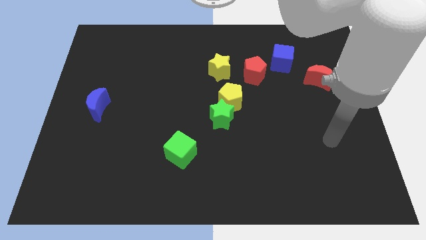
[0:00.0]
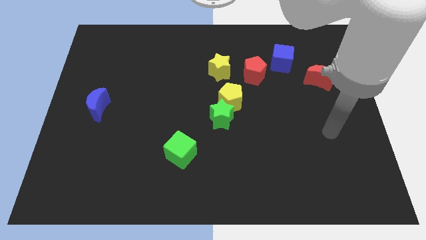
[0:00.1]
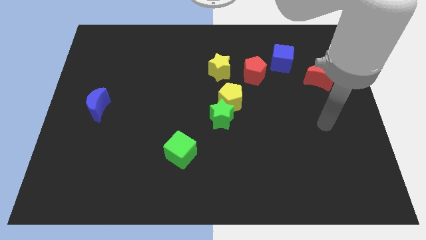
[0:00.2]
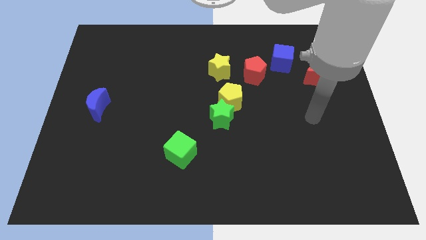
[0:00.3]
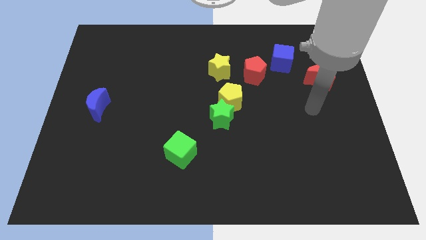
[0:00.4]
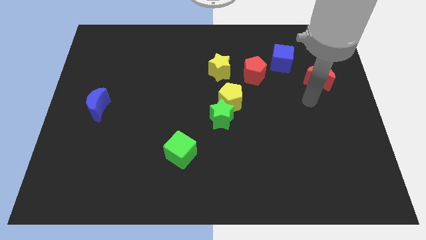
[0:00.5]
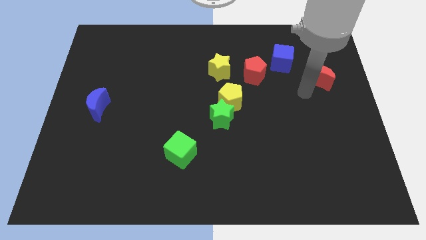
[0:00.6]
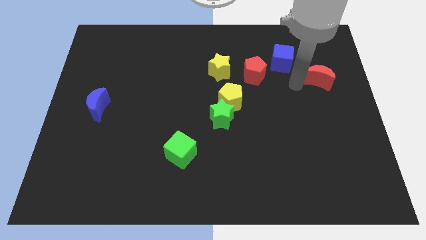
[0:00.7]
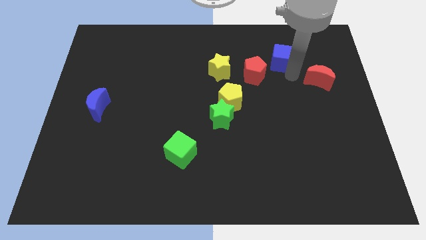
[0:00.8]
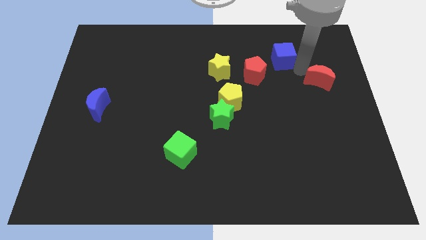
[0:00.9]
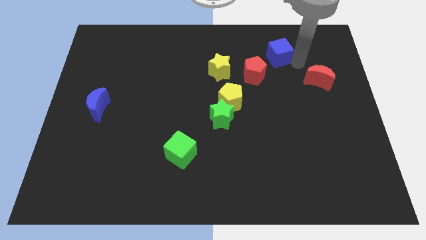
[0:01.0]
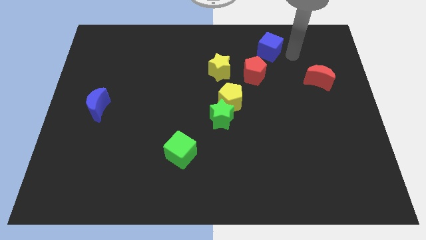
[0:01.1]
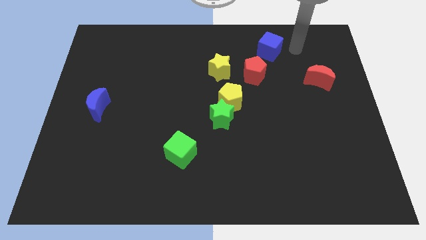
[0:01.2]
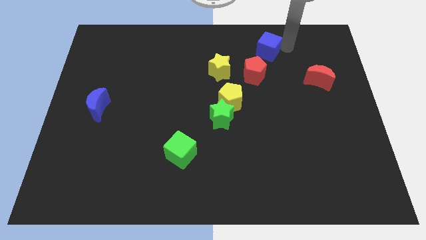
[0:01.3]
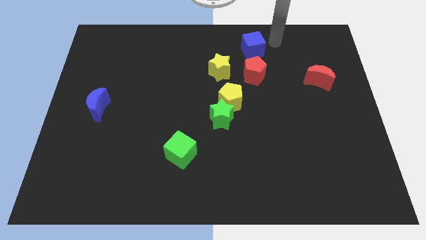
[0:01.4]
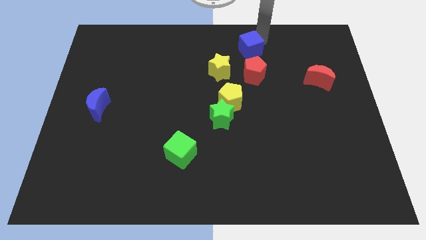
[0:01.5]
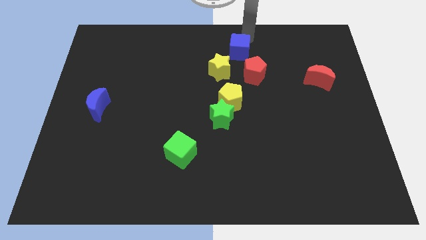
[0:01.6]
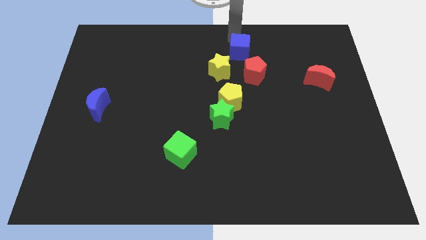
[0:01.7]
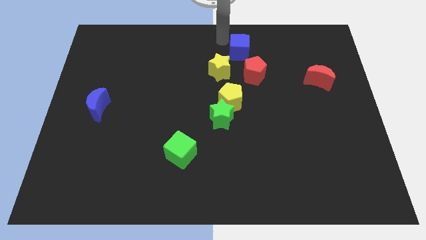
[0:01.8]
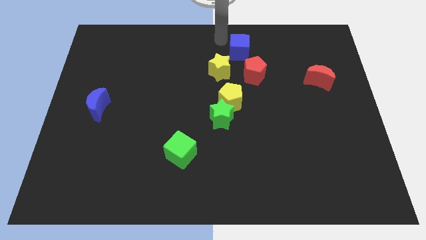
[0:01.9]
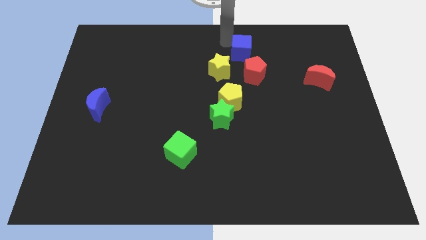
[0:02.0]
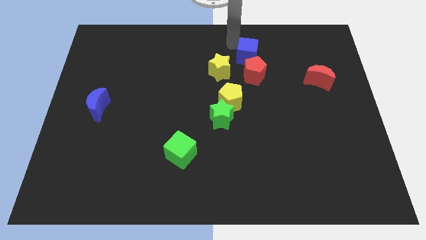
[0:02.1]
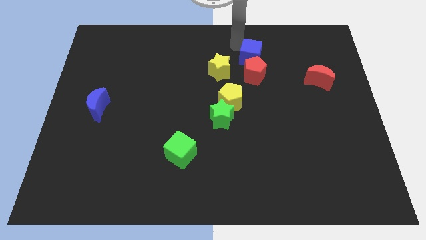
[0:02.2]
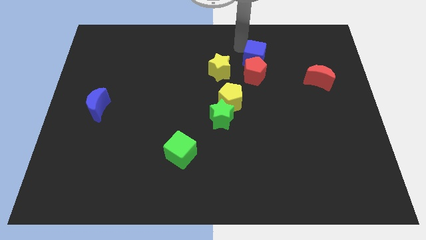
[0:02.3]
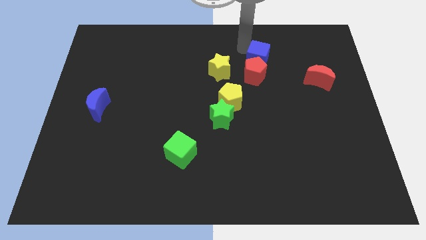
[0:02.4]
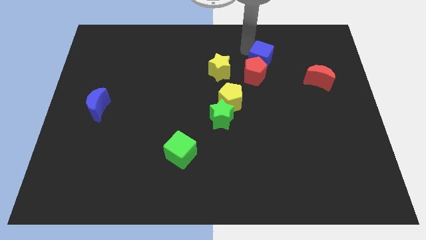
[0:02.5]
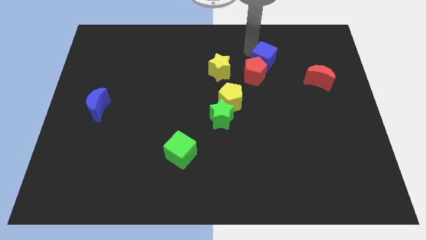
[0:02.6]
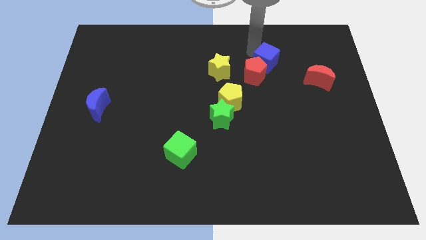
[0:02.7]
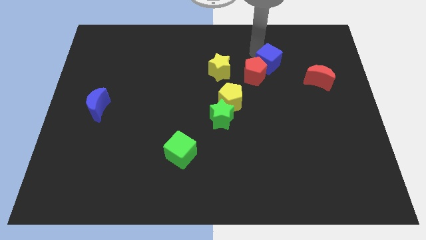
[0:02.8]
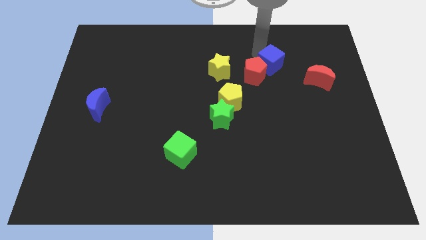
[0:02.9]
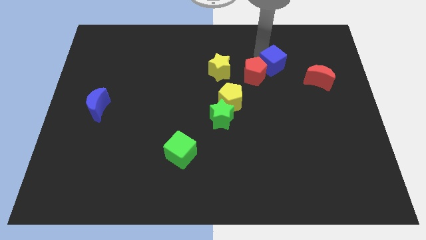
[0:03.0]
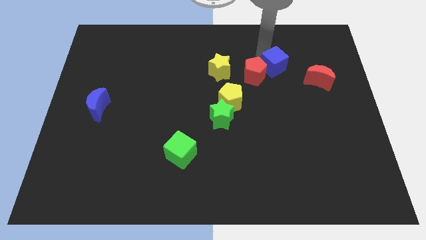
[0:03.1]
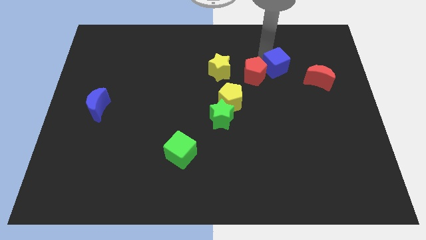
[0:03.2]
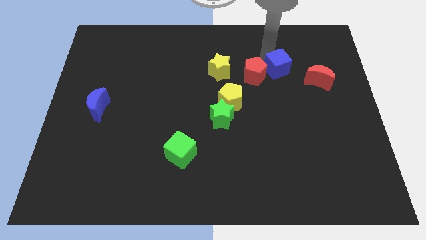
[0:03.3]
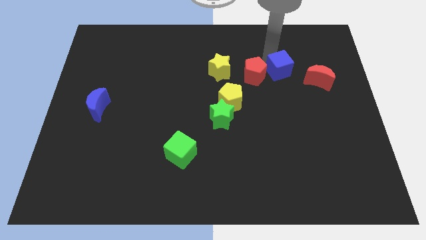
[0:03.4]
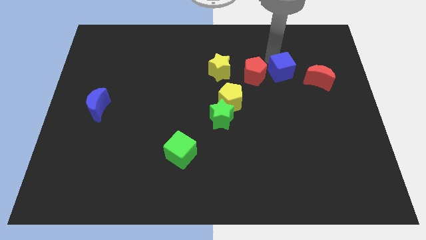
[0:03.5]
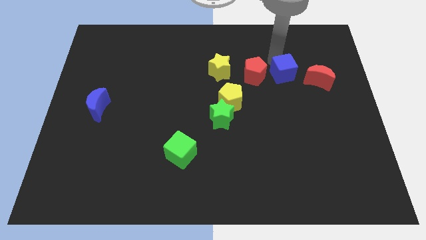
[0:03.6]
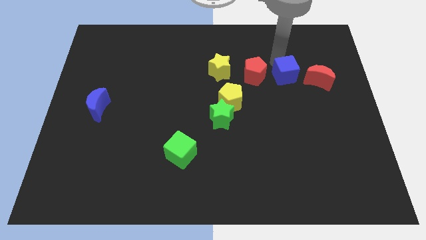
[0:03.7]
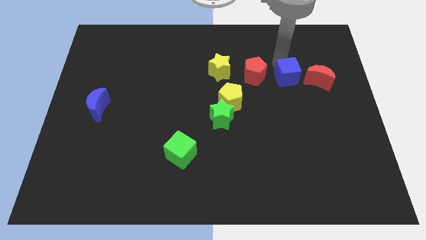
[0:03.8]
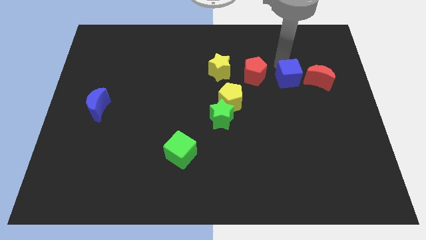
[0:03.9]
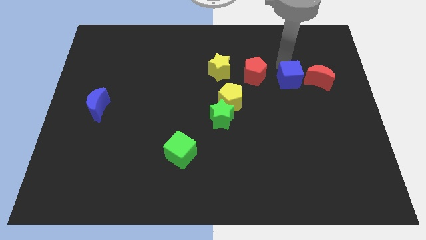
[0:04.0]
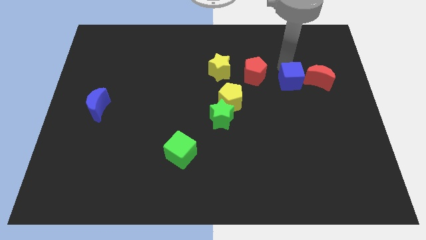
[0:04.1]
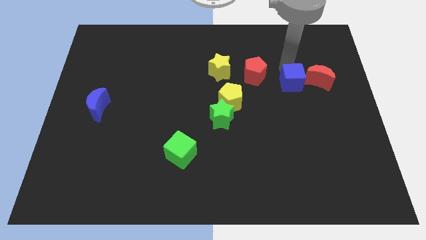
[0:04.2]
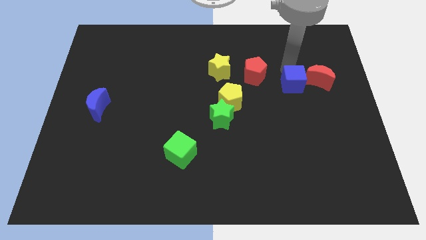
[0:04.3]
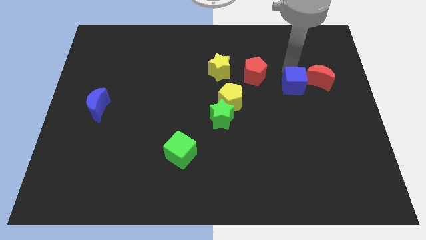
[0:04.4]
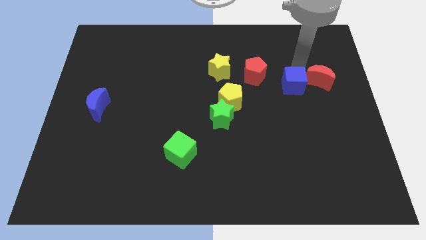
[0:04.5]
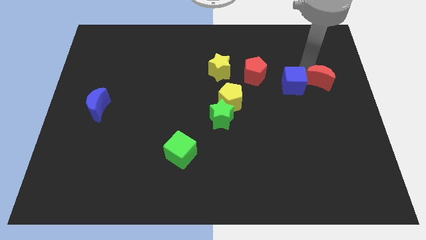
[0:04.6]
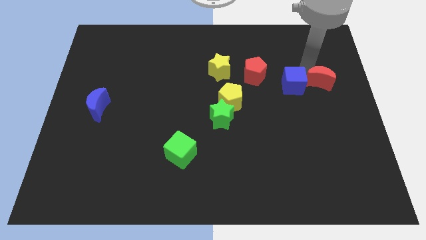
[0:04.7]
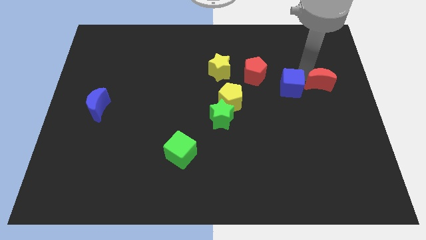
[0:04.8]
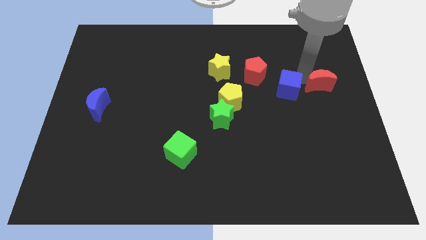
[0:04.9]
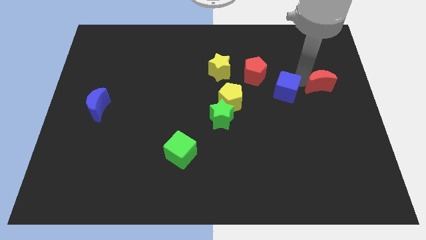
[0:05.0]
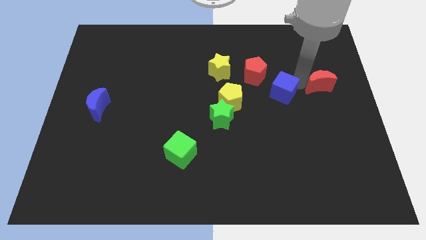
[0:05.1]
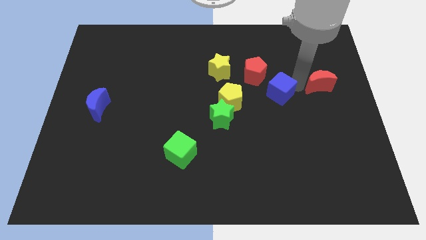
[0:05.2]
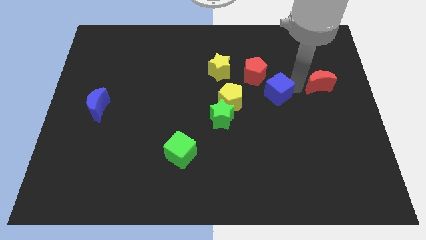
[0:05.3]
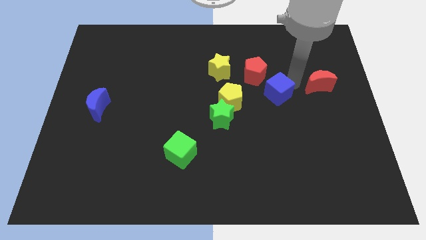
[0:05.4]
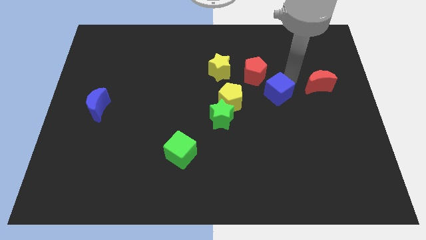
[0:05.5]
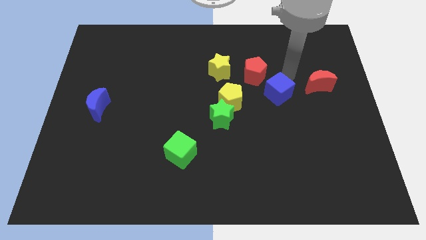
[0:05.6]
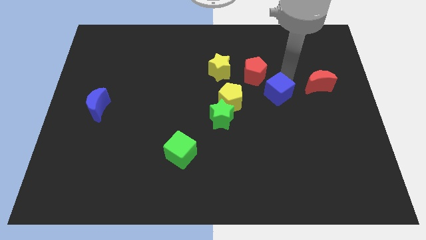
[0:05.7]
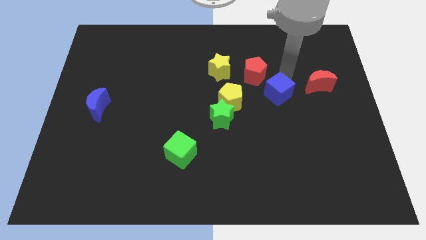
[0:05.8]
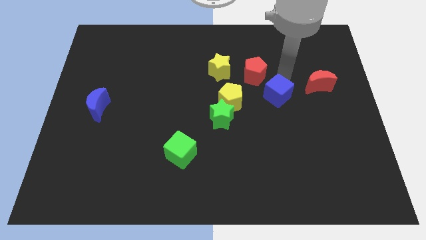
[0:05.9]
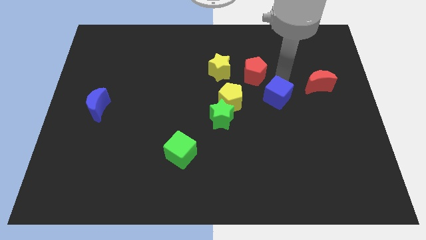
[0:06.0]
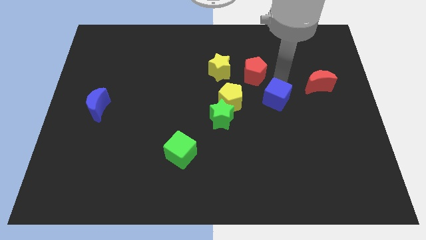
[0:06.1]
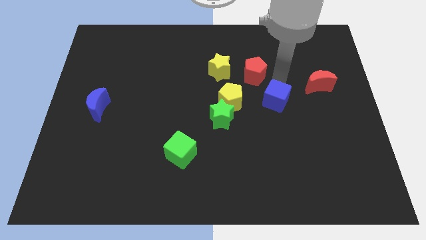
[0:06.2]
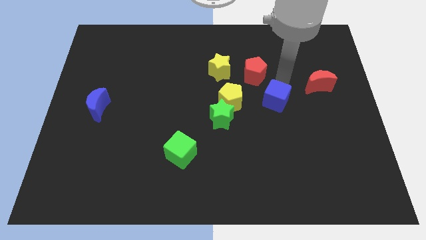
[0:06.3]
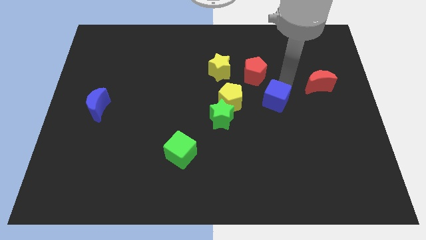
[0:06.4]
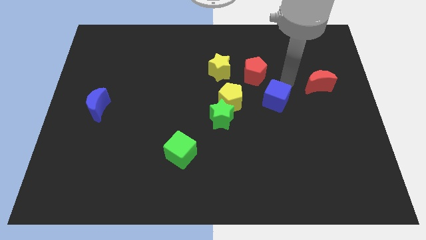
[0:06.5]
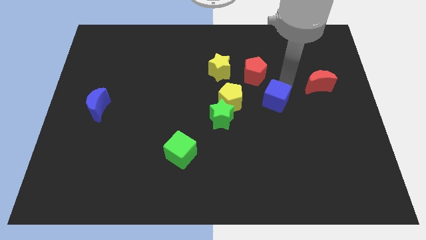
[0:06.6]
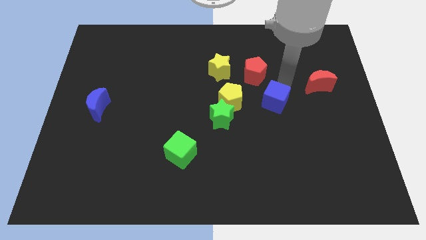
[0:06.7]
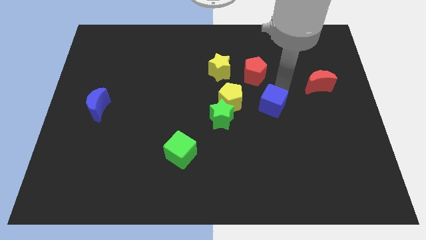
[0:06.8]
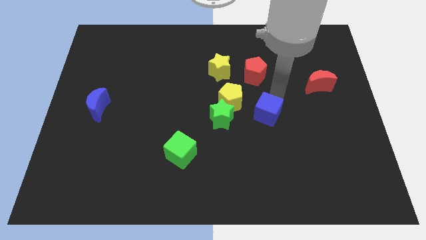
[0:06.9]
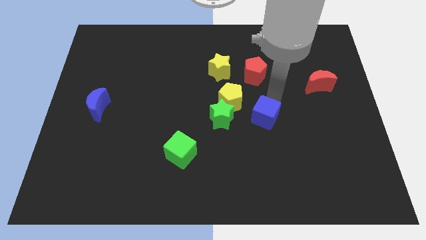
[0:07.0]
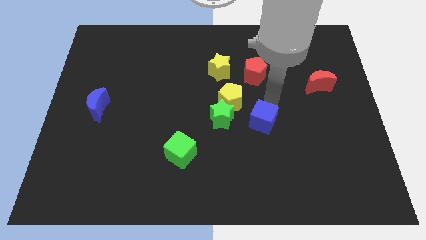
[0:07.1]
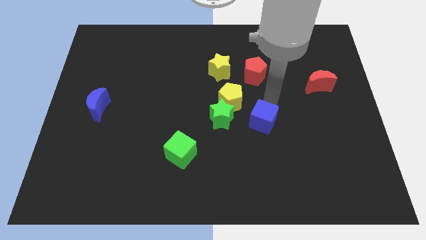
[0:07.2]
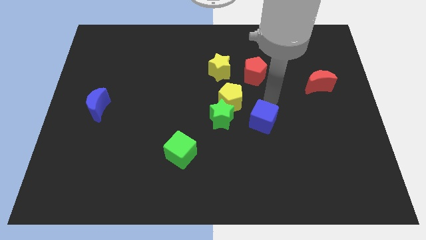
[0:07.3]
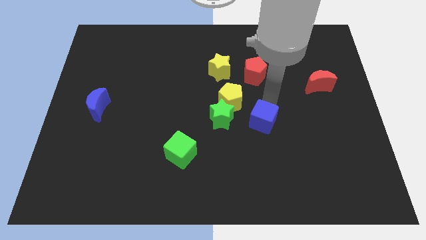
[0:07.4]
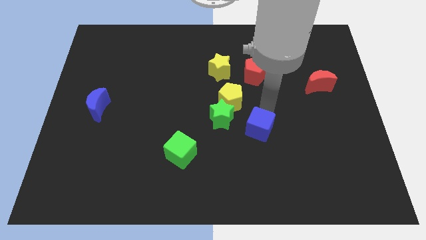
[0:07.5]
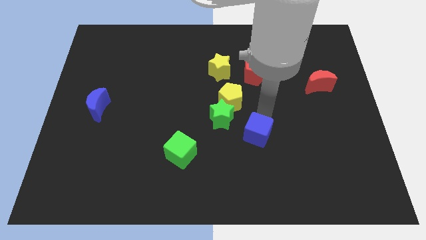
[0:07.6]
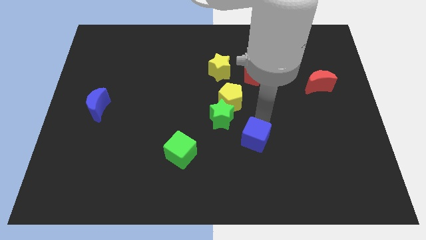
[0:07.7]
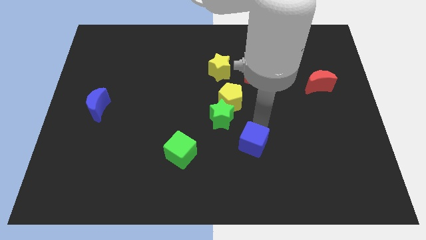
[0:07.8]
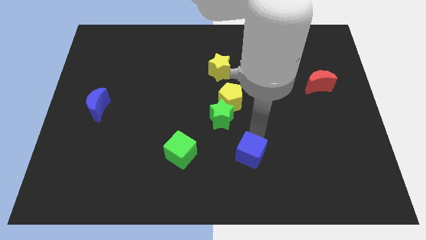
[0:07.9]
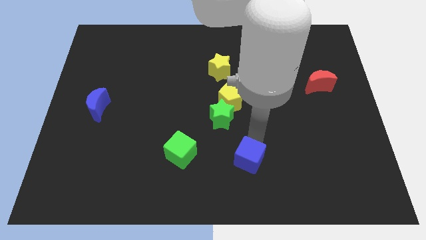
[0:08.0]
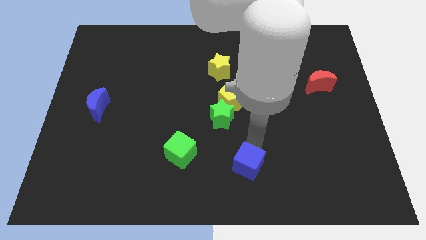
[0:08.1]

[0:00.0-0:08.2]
slide the blue cube to the bottom
